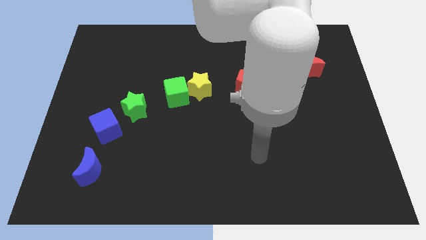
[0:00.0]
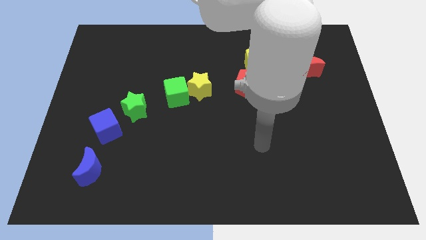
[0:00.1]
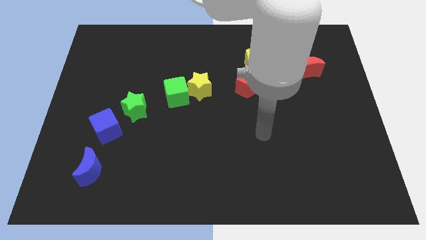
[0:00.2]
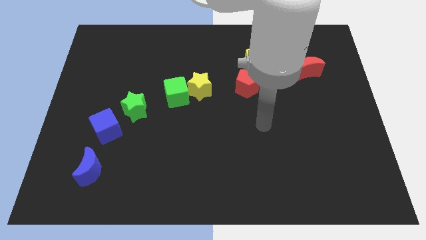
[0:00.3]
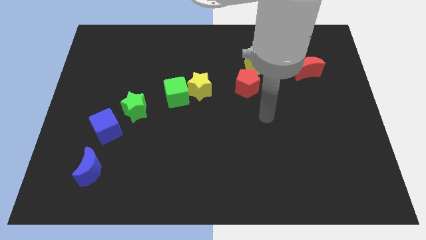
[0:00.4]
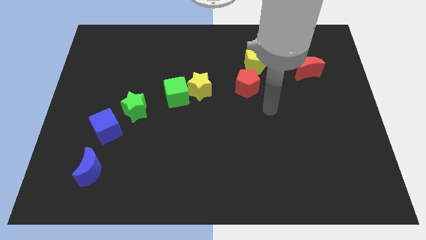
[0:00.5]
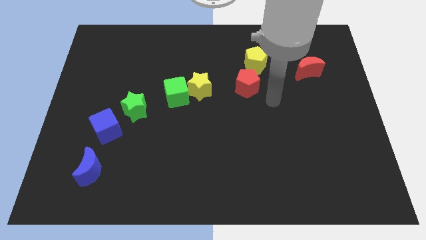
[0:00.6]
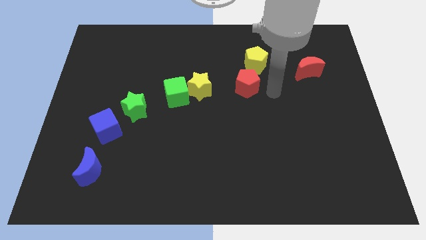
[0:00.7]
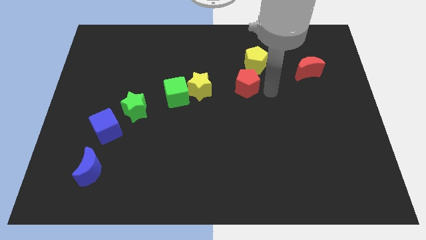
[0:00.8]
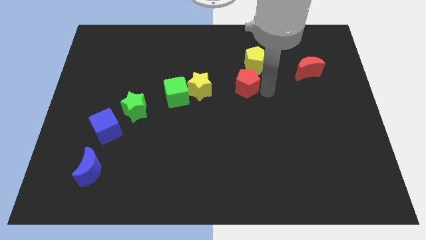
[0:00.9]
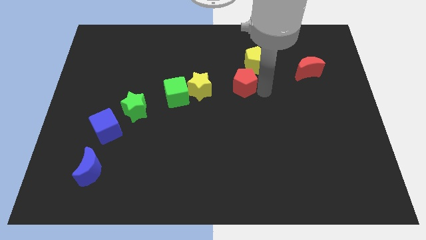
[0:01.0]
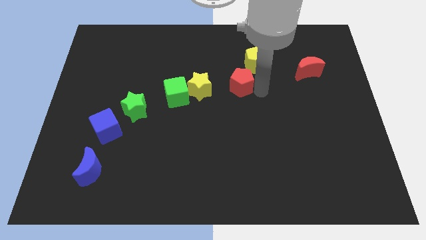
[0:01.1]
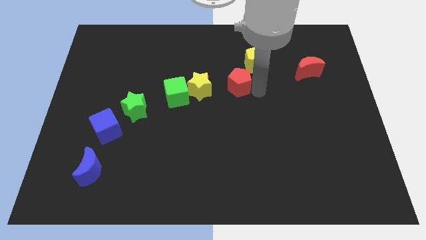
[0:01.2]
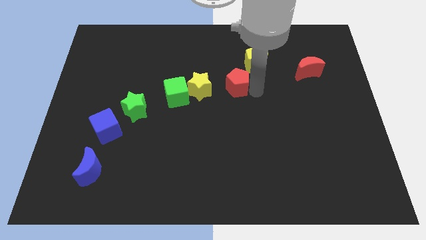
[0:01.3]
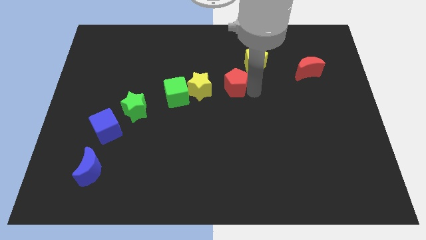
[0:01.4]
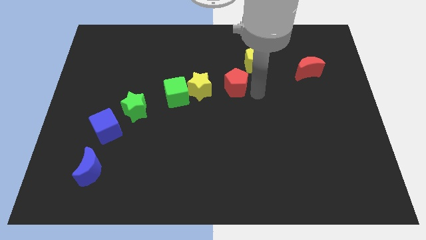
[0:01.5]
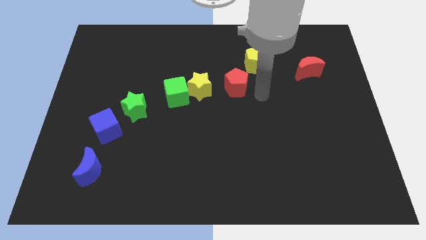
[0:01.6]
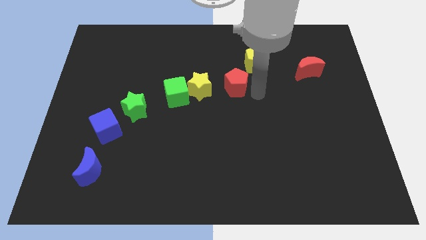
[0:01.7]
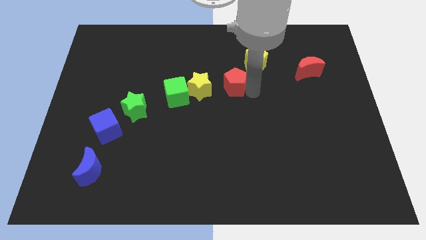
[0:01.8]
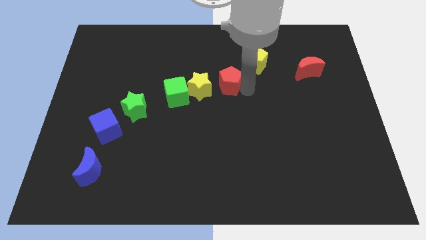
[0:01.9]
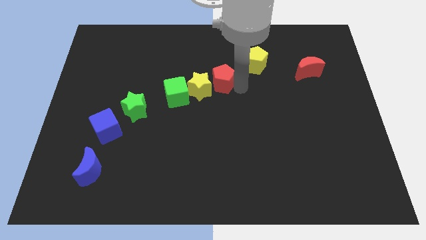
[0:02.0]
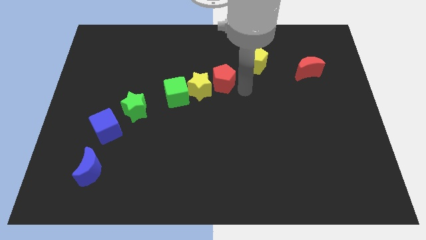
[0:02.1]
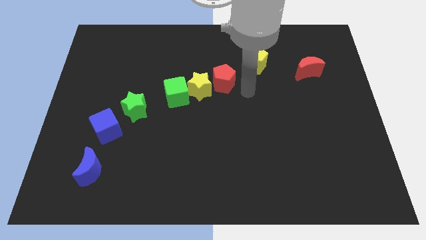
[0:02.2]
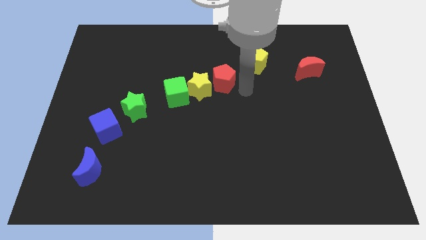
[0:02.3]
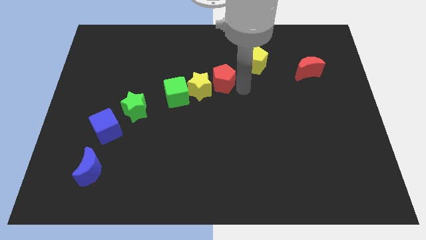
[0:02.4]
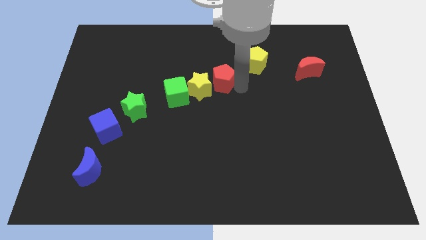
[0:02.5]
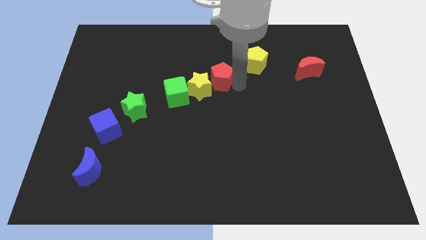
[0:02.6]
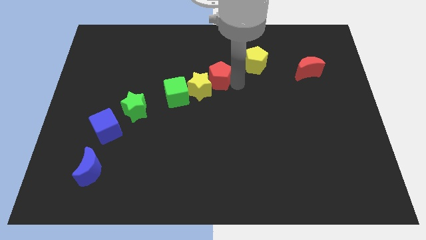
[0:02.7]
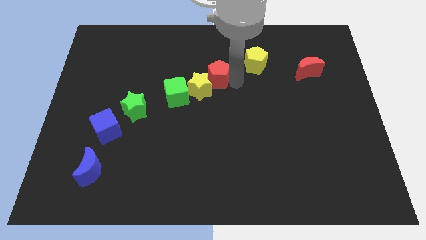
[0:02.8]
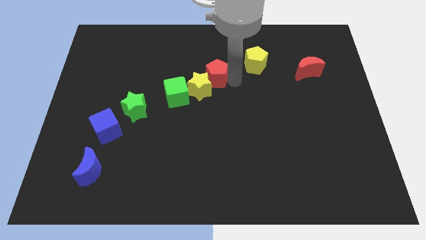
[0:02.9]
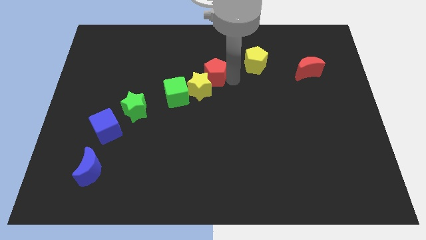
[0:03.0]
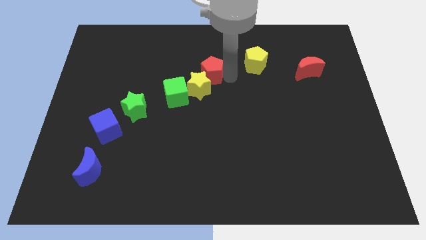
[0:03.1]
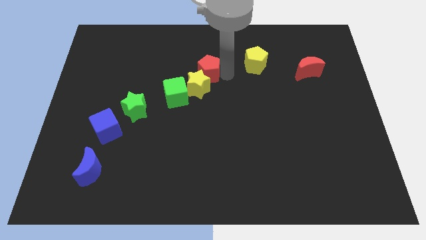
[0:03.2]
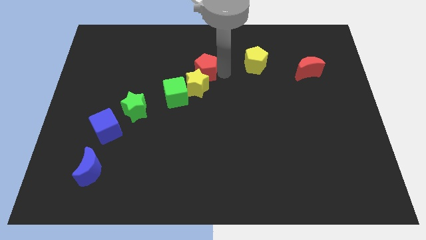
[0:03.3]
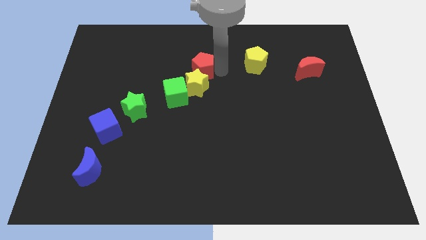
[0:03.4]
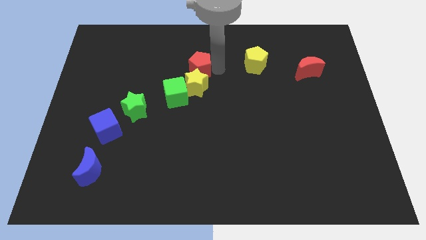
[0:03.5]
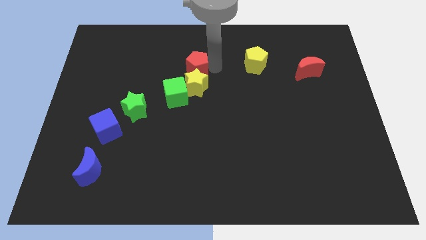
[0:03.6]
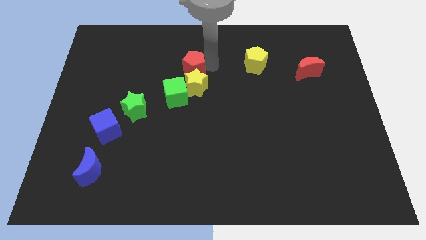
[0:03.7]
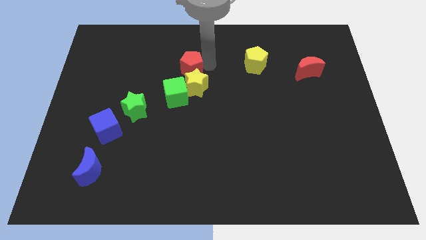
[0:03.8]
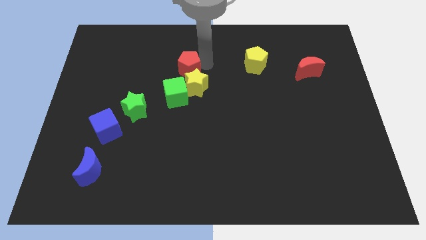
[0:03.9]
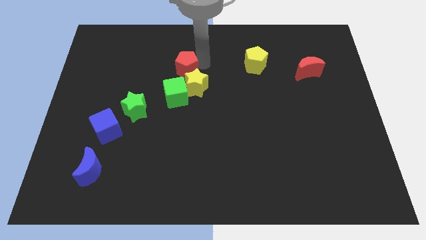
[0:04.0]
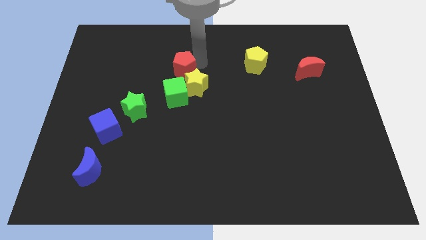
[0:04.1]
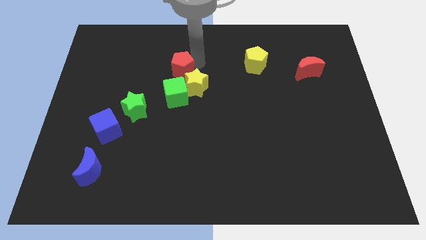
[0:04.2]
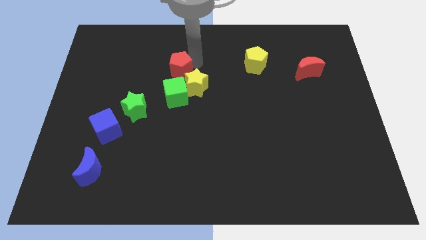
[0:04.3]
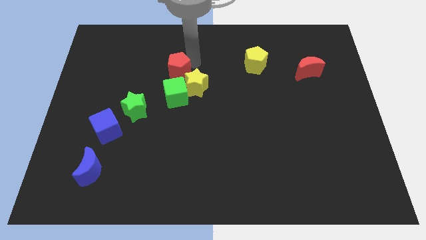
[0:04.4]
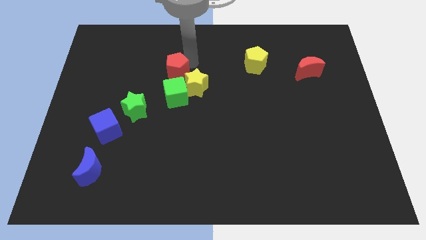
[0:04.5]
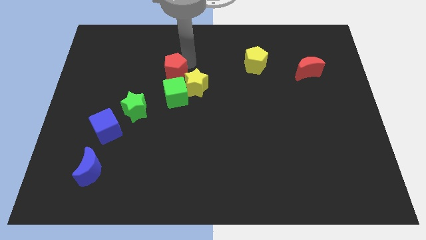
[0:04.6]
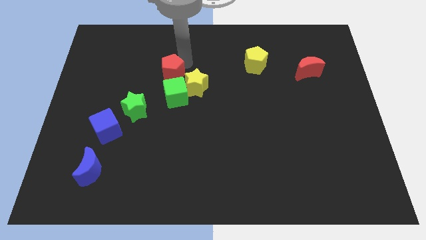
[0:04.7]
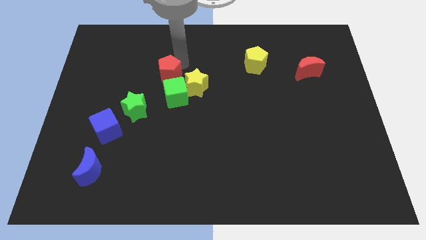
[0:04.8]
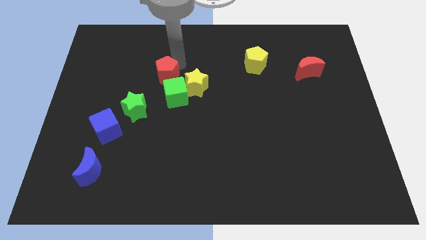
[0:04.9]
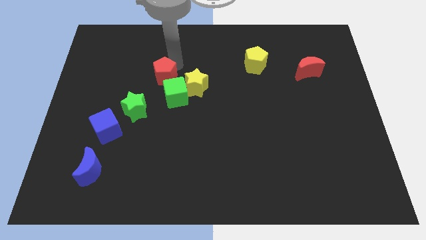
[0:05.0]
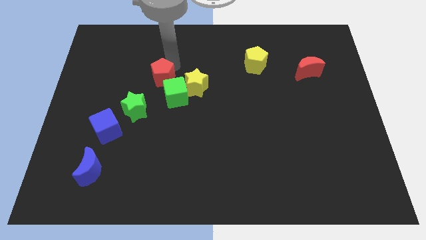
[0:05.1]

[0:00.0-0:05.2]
put the red pentagon to the top right side of the green star

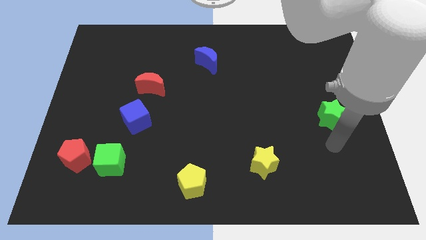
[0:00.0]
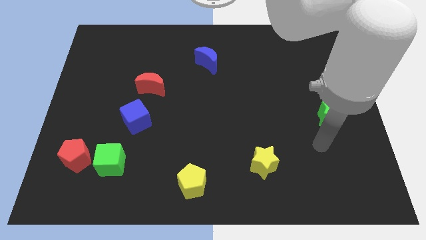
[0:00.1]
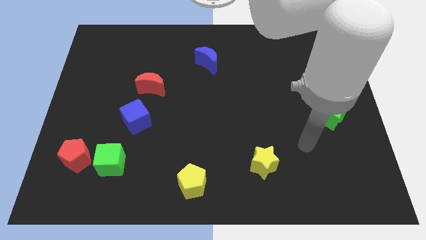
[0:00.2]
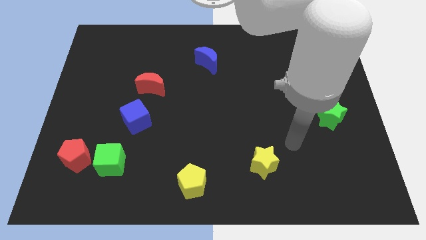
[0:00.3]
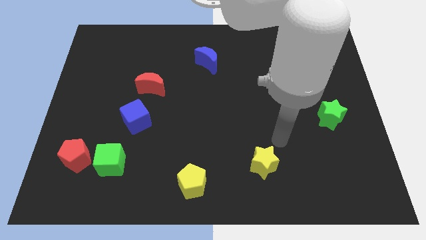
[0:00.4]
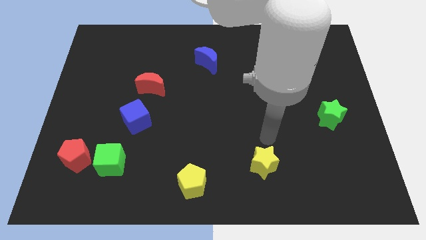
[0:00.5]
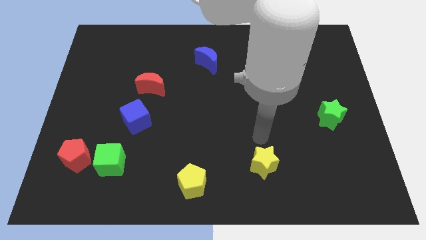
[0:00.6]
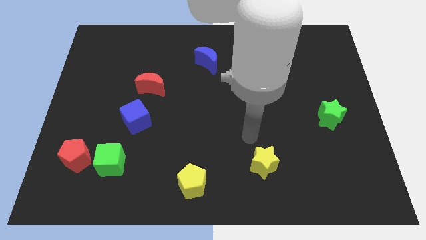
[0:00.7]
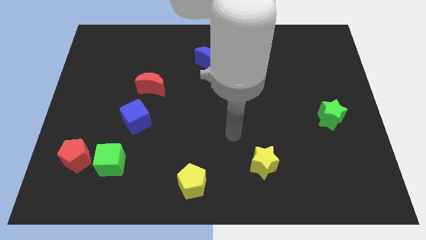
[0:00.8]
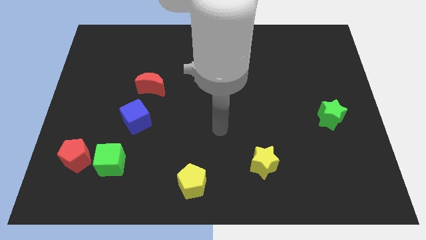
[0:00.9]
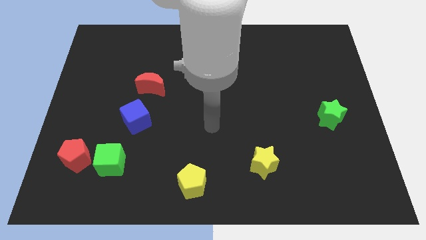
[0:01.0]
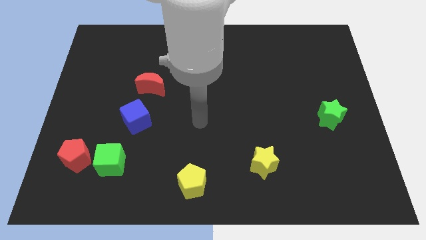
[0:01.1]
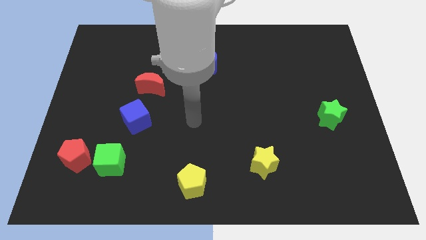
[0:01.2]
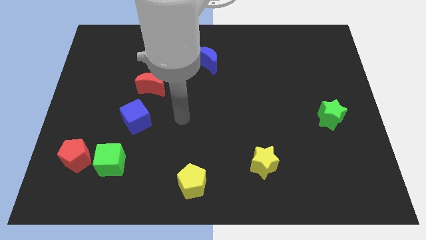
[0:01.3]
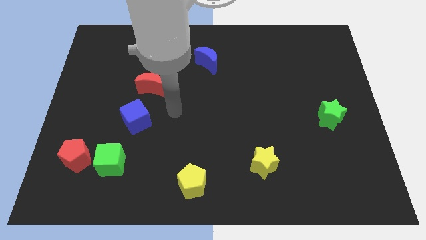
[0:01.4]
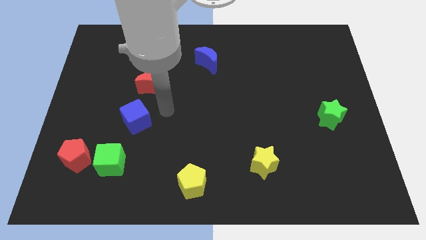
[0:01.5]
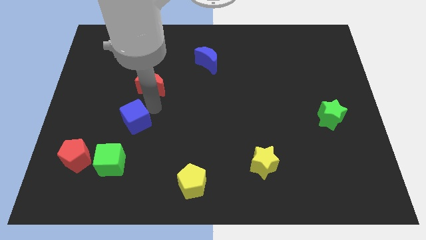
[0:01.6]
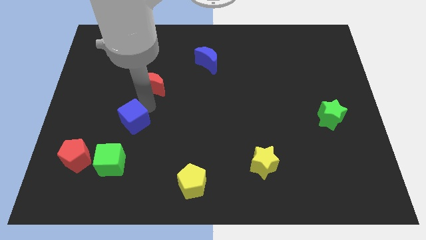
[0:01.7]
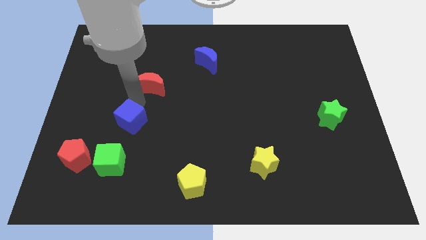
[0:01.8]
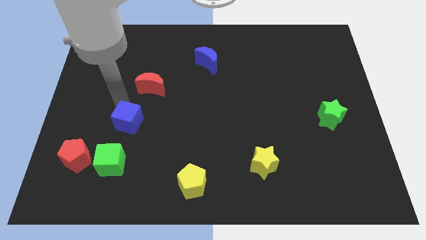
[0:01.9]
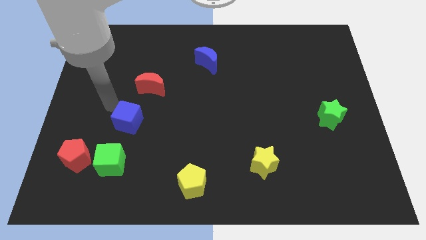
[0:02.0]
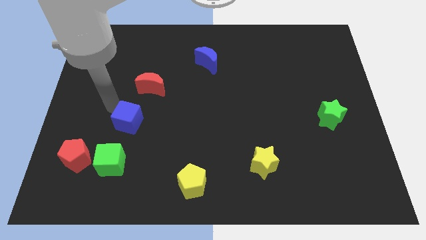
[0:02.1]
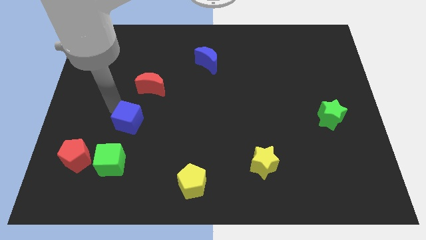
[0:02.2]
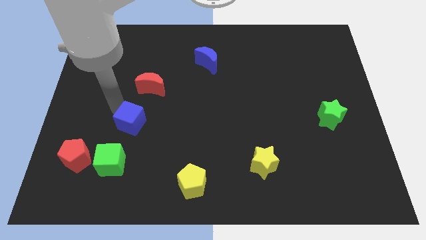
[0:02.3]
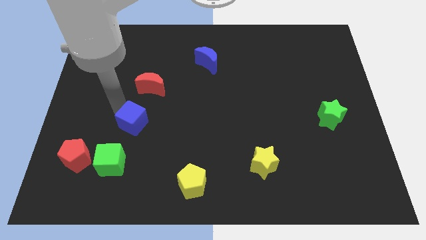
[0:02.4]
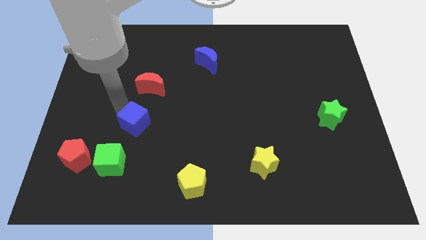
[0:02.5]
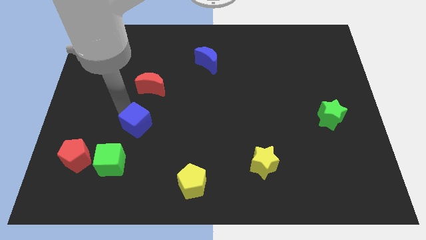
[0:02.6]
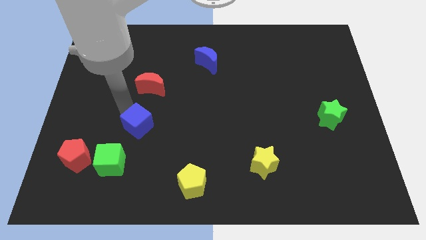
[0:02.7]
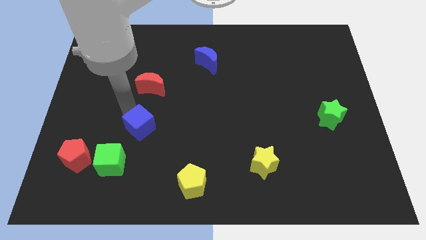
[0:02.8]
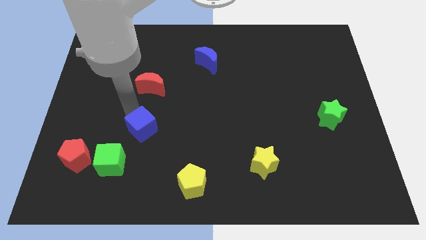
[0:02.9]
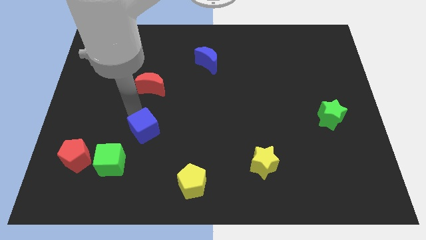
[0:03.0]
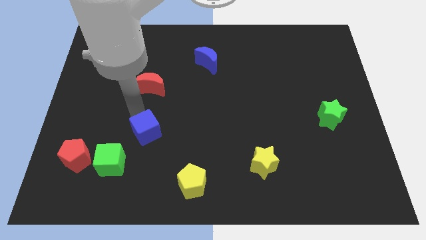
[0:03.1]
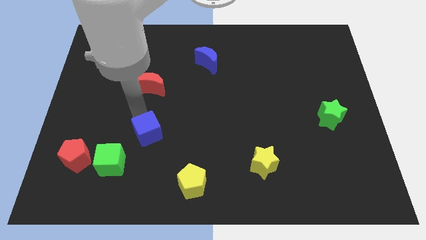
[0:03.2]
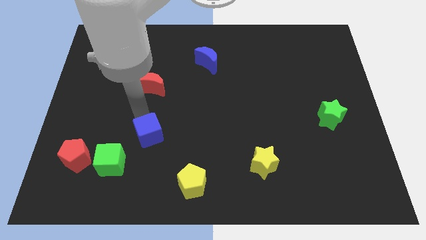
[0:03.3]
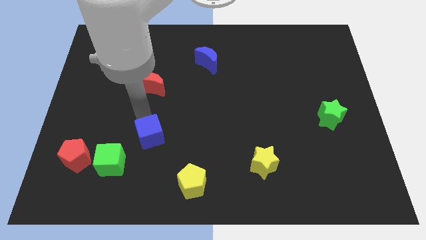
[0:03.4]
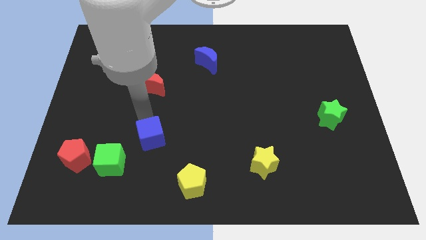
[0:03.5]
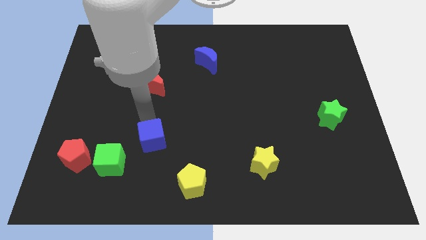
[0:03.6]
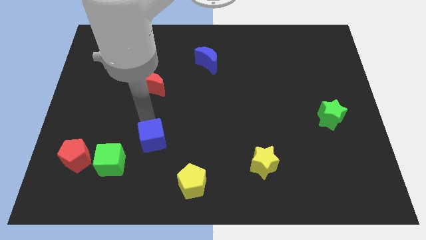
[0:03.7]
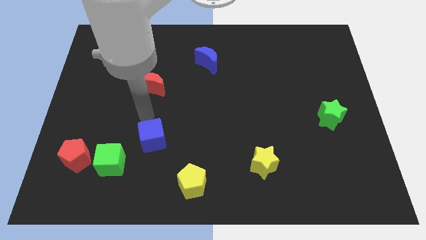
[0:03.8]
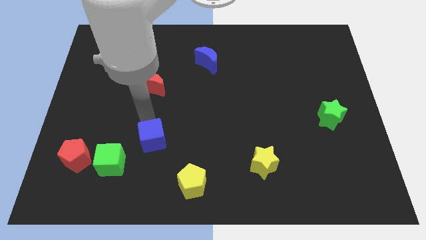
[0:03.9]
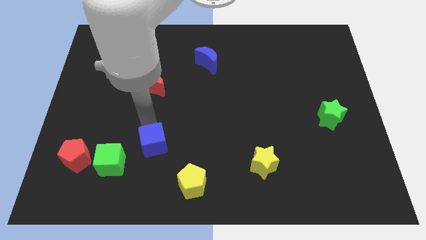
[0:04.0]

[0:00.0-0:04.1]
put the blue cube to the right of the green cube
